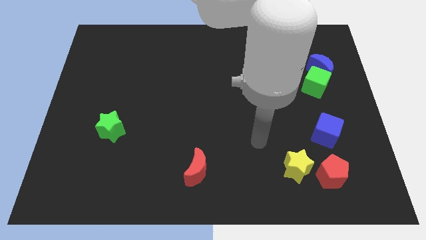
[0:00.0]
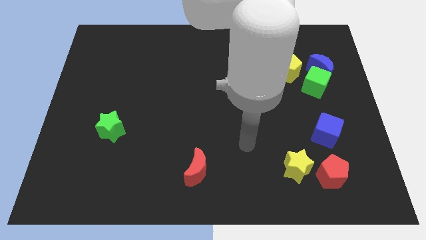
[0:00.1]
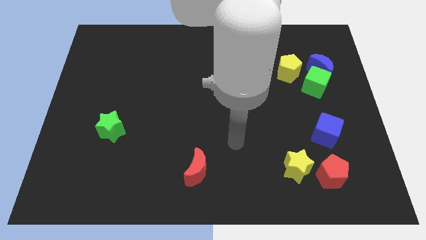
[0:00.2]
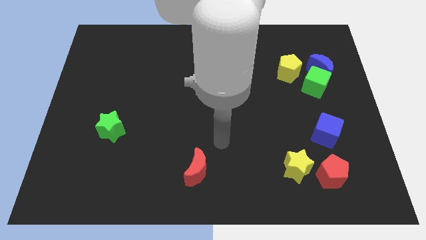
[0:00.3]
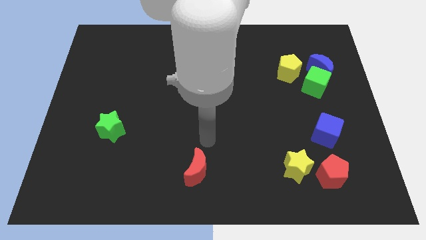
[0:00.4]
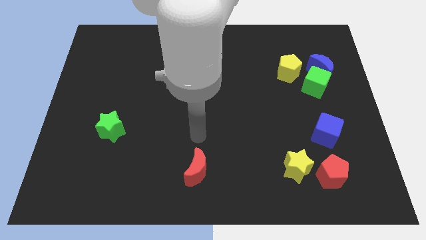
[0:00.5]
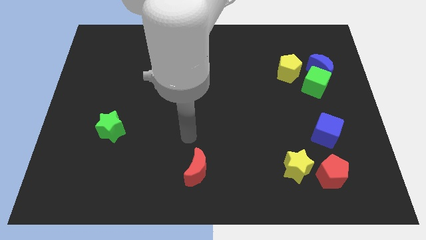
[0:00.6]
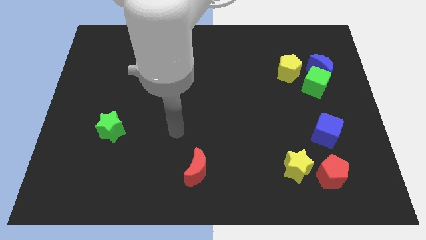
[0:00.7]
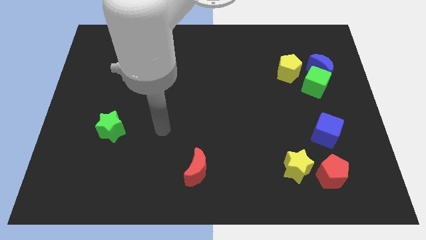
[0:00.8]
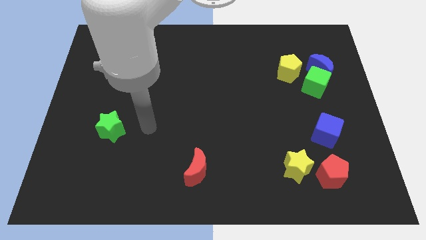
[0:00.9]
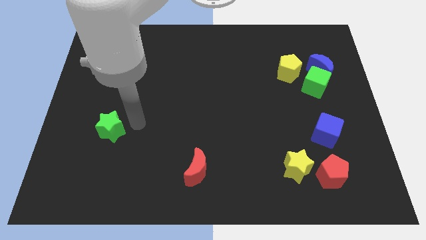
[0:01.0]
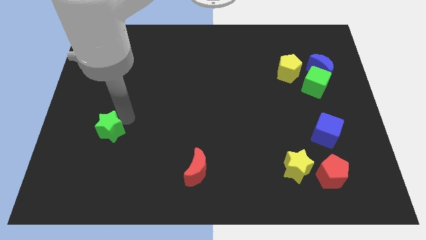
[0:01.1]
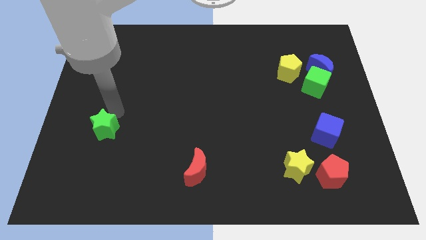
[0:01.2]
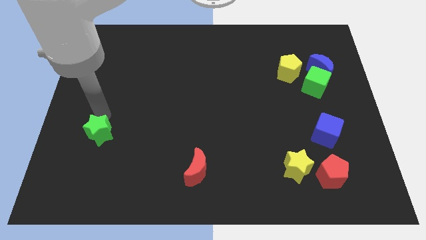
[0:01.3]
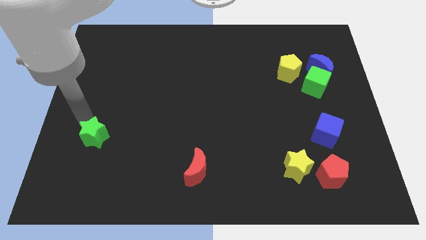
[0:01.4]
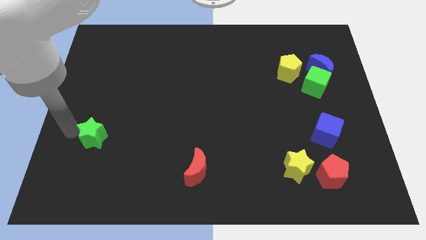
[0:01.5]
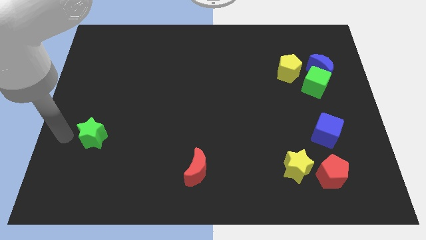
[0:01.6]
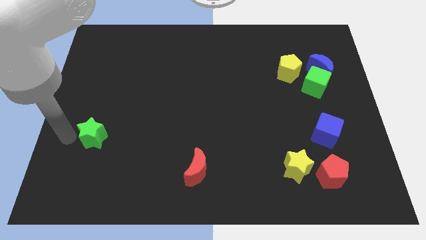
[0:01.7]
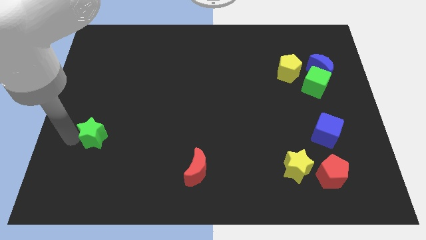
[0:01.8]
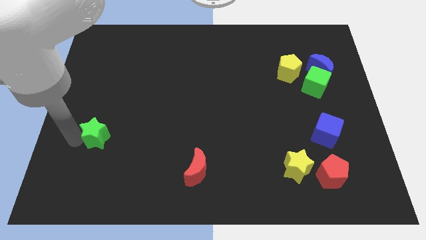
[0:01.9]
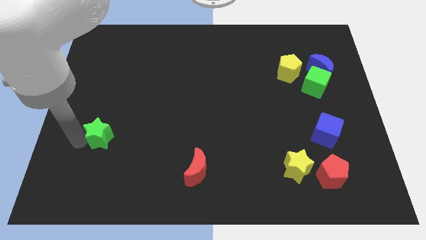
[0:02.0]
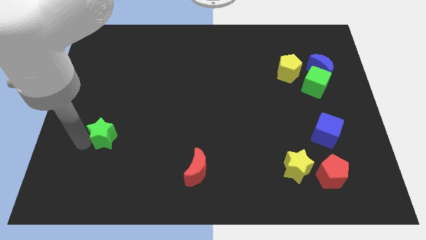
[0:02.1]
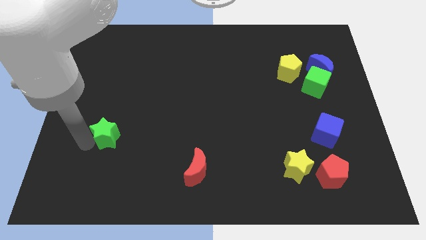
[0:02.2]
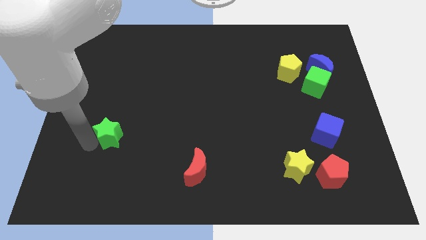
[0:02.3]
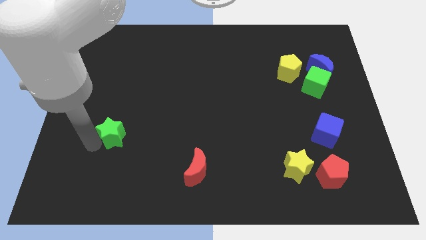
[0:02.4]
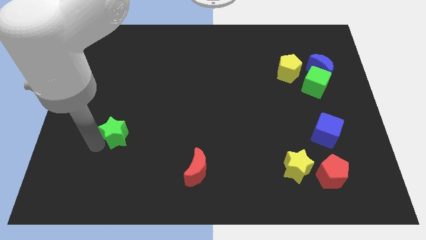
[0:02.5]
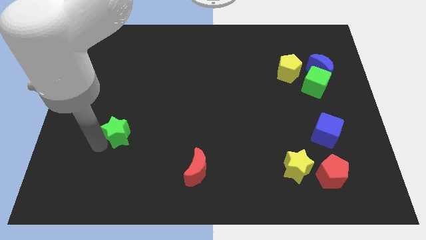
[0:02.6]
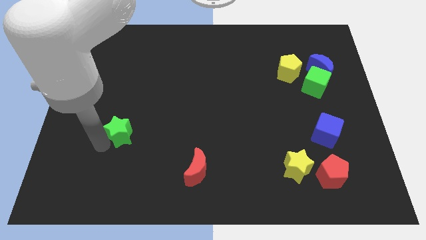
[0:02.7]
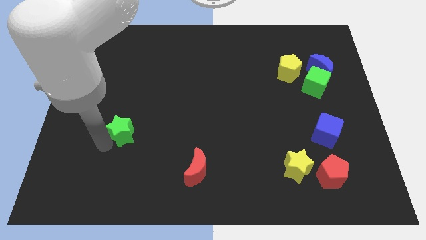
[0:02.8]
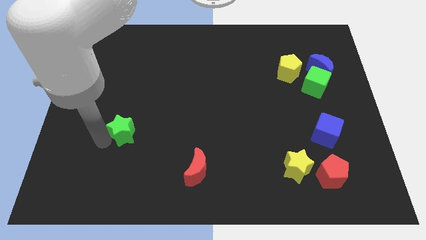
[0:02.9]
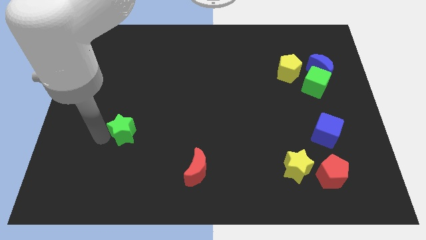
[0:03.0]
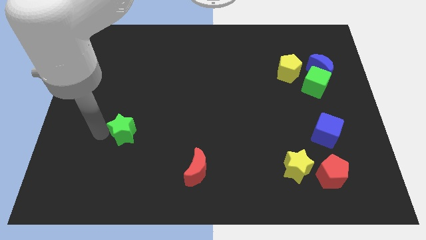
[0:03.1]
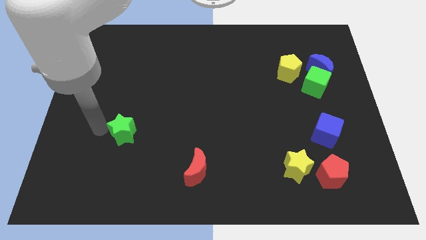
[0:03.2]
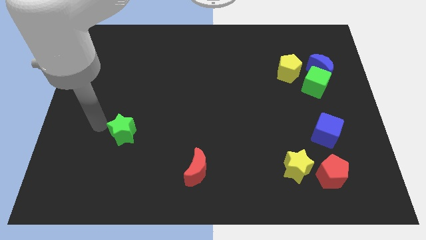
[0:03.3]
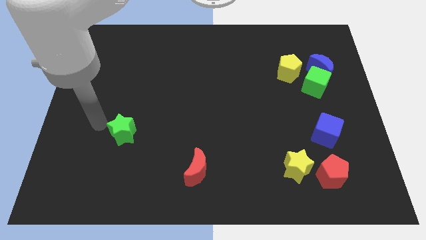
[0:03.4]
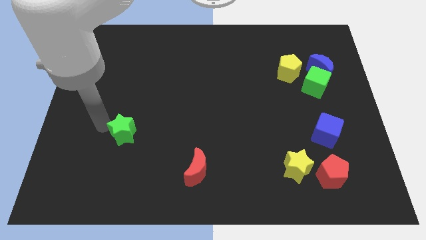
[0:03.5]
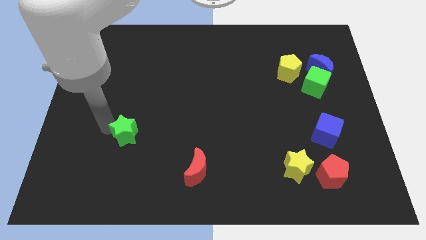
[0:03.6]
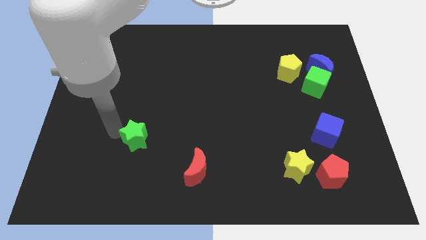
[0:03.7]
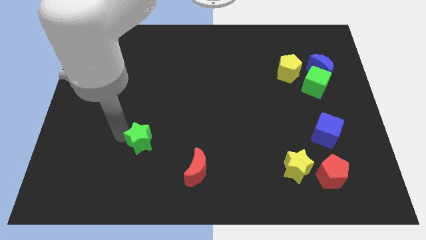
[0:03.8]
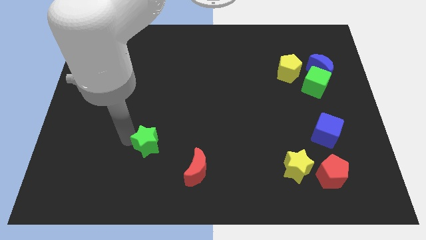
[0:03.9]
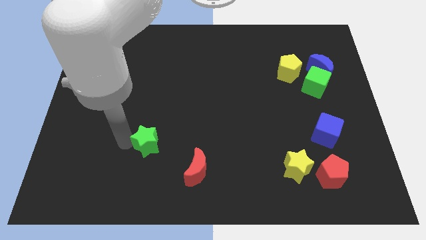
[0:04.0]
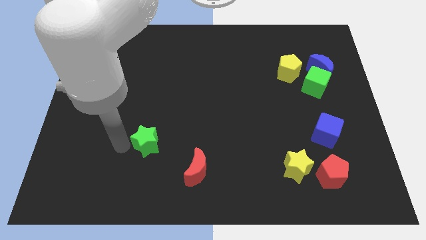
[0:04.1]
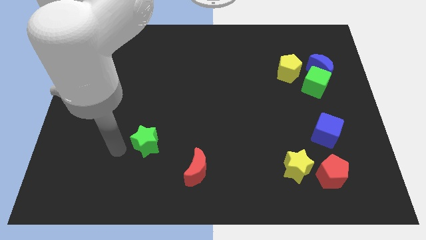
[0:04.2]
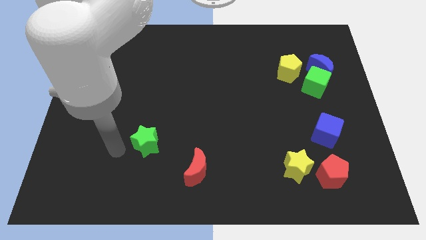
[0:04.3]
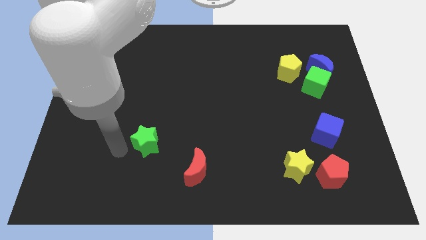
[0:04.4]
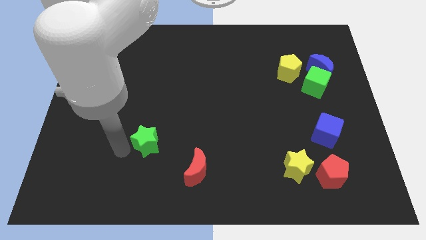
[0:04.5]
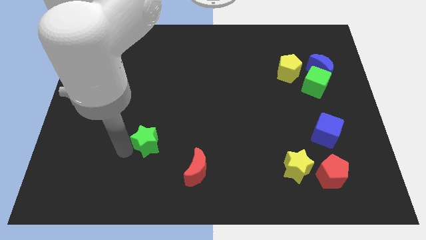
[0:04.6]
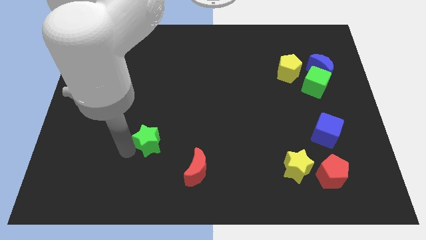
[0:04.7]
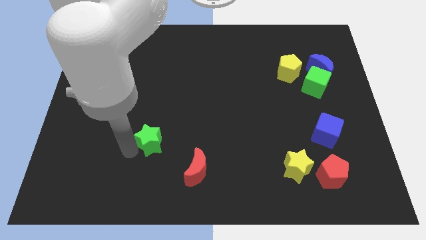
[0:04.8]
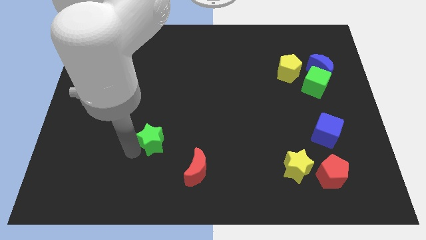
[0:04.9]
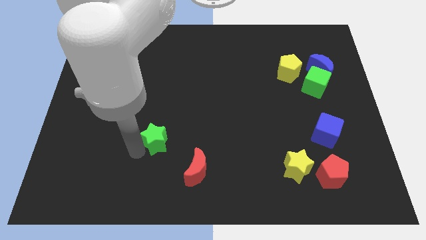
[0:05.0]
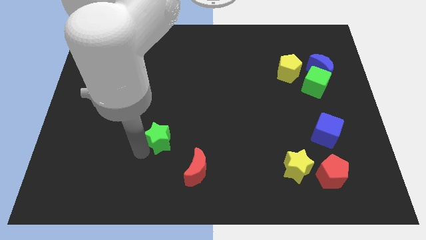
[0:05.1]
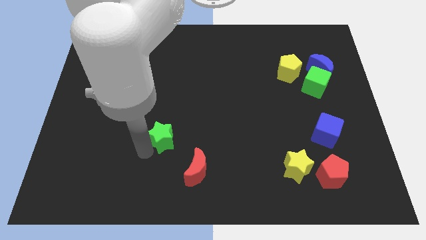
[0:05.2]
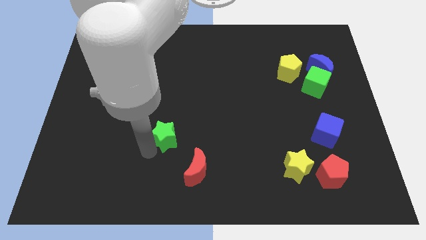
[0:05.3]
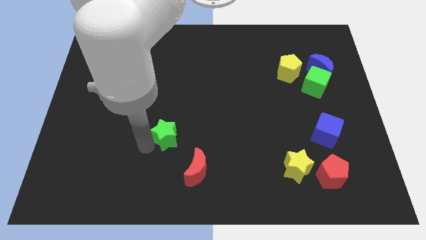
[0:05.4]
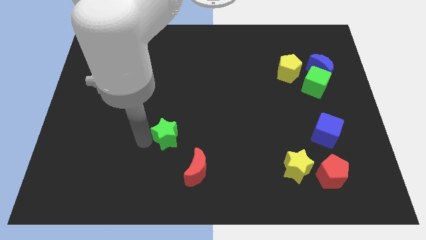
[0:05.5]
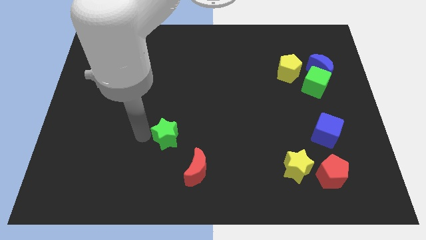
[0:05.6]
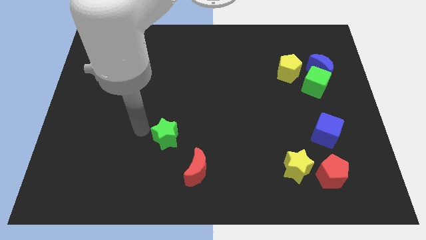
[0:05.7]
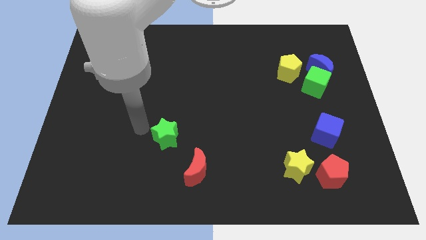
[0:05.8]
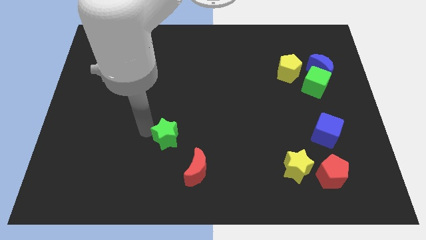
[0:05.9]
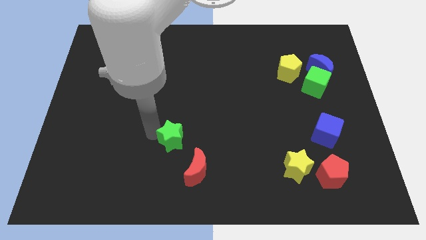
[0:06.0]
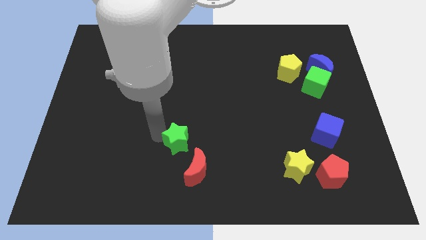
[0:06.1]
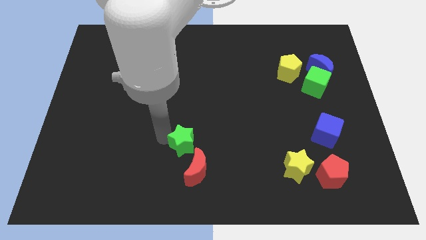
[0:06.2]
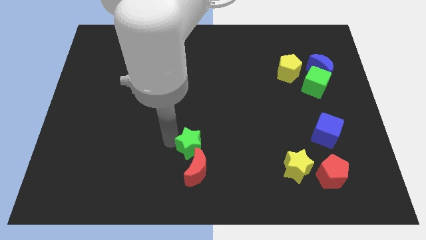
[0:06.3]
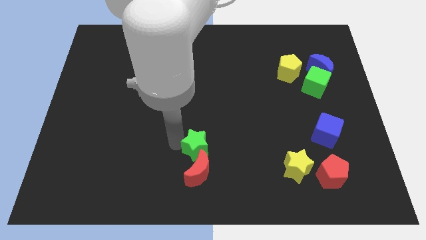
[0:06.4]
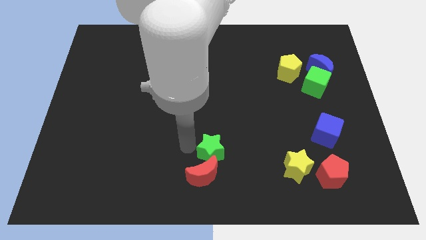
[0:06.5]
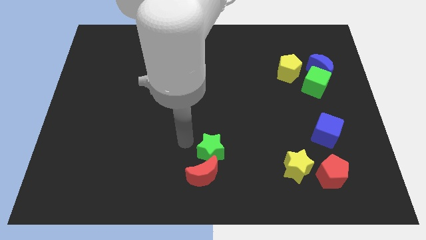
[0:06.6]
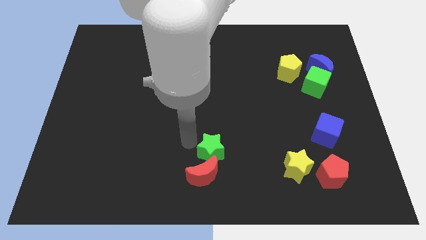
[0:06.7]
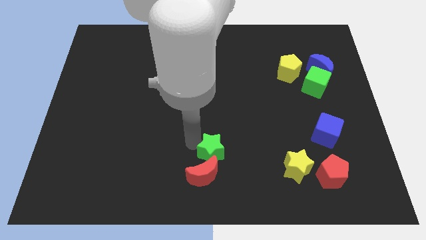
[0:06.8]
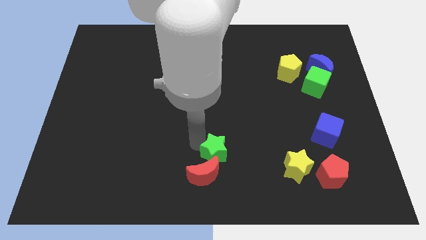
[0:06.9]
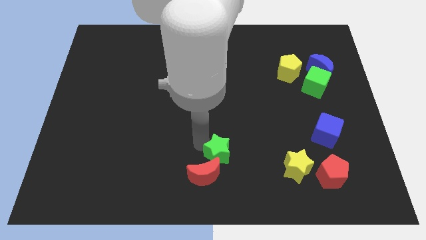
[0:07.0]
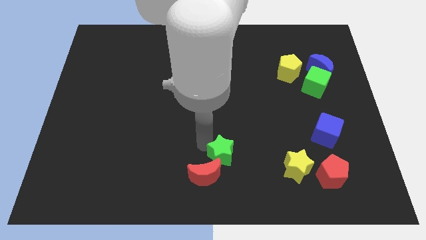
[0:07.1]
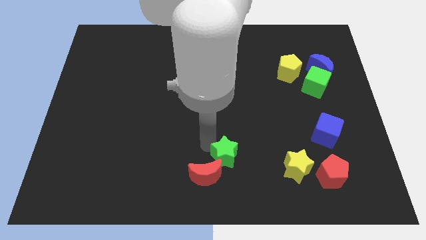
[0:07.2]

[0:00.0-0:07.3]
put the green star left of the yellow star
